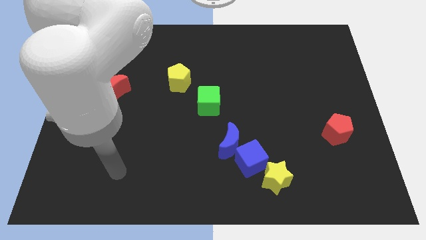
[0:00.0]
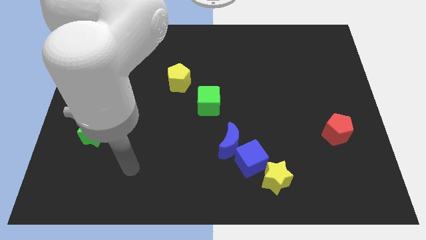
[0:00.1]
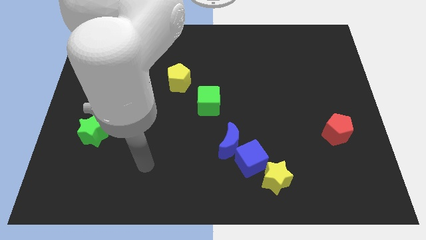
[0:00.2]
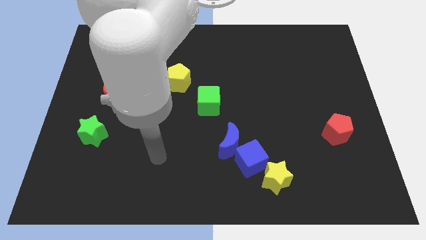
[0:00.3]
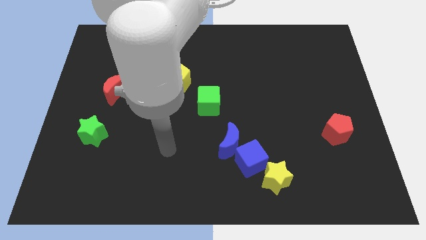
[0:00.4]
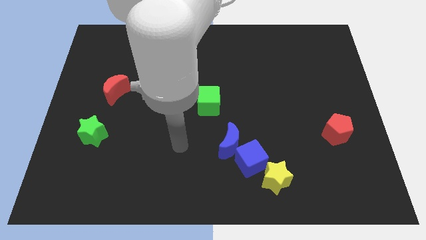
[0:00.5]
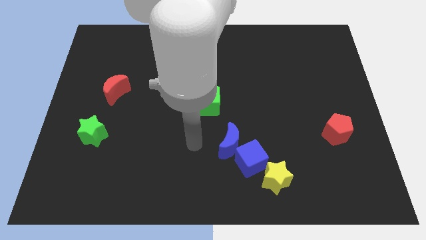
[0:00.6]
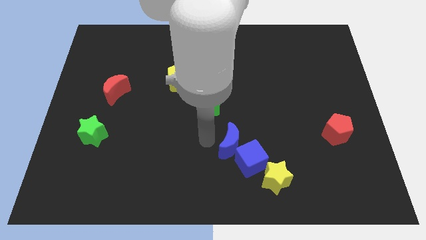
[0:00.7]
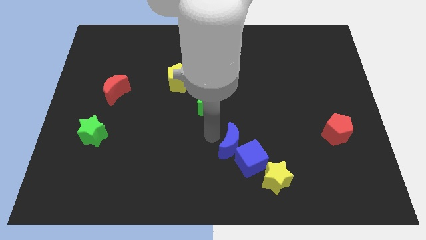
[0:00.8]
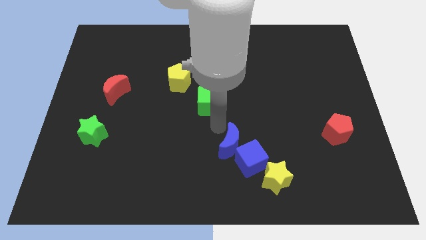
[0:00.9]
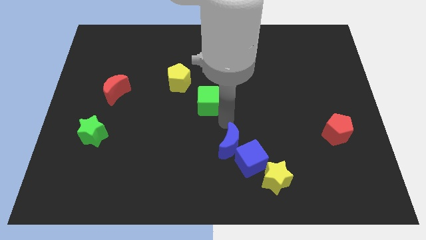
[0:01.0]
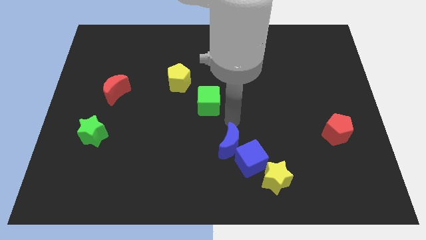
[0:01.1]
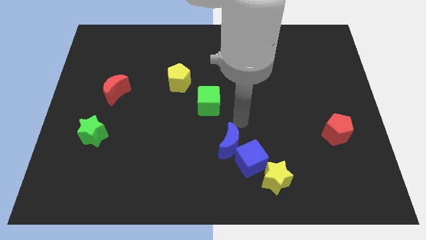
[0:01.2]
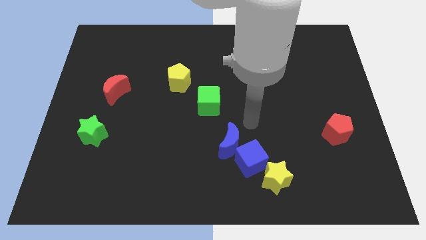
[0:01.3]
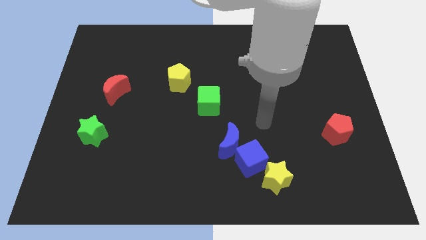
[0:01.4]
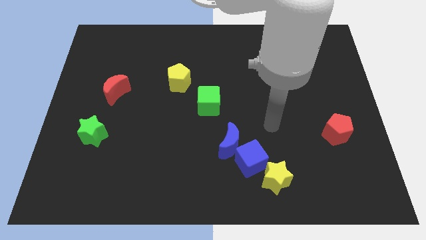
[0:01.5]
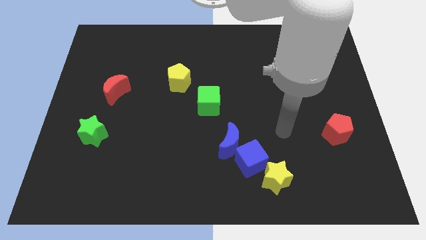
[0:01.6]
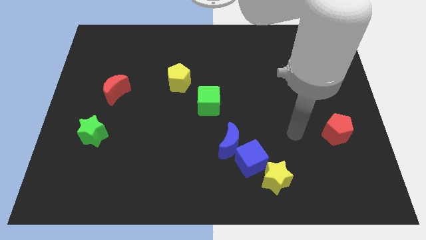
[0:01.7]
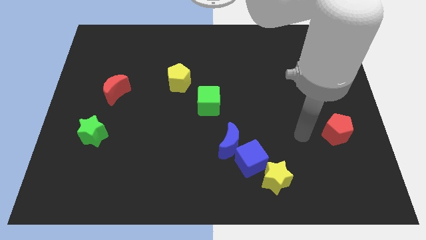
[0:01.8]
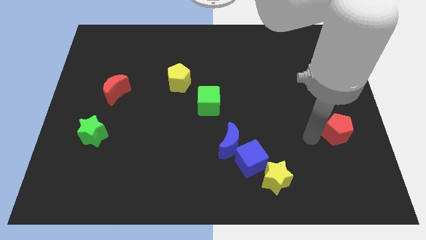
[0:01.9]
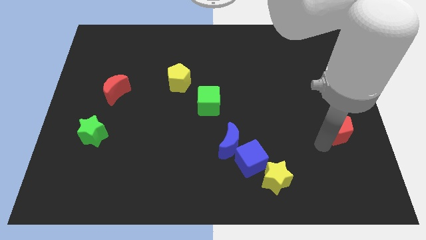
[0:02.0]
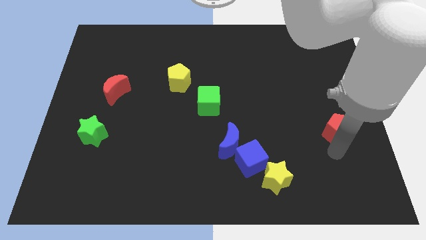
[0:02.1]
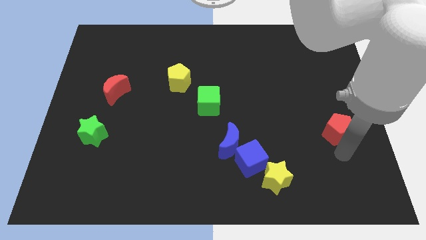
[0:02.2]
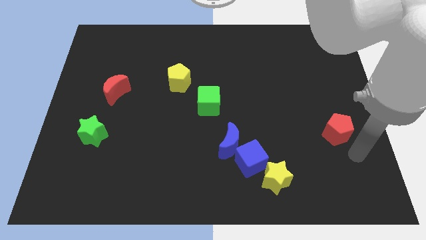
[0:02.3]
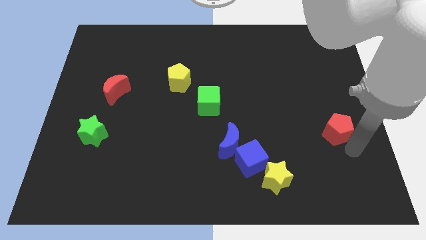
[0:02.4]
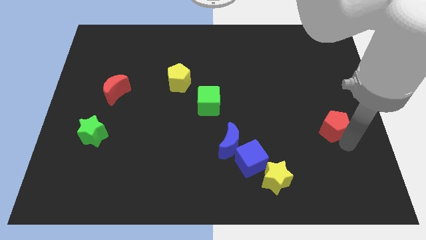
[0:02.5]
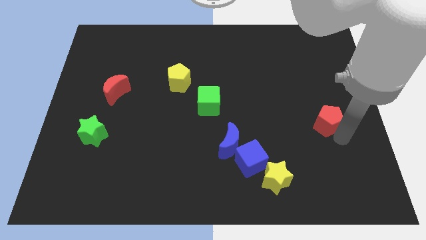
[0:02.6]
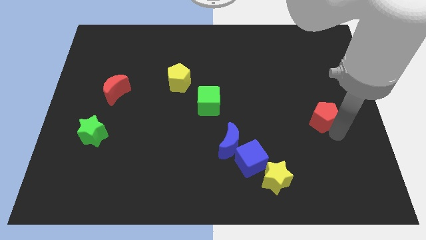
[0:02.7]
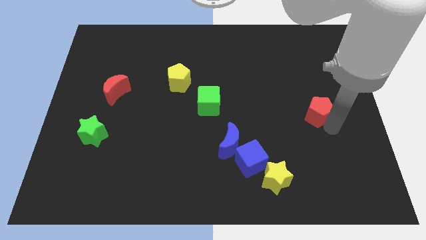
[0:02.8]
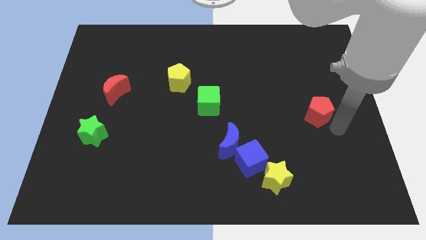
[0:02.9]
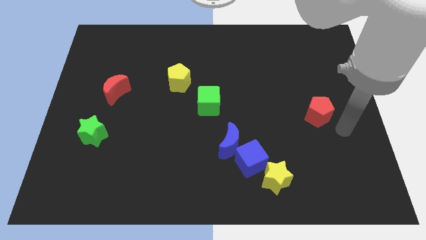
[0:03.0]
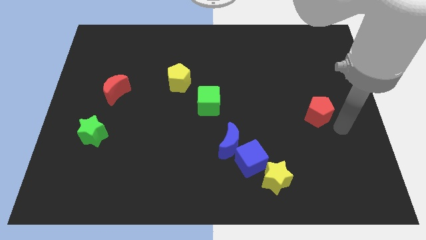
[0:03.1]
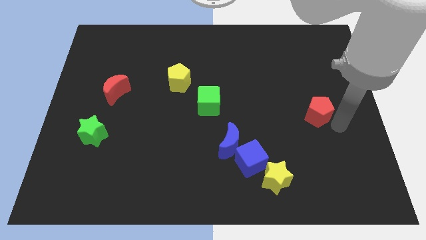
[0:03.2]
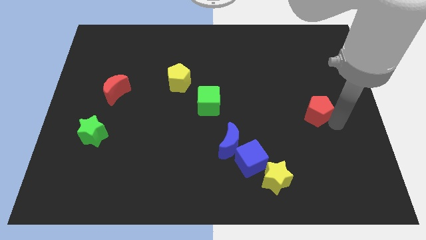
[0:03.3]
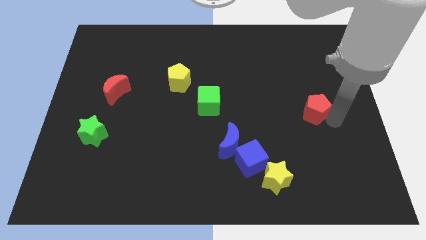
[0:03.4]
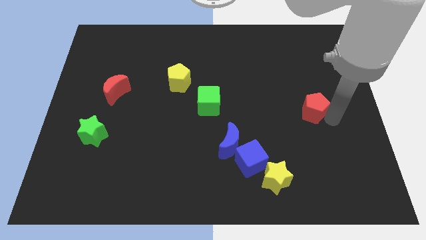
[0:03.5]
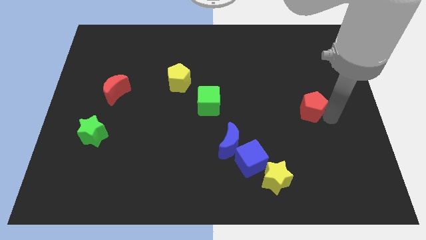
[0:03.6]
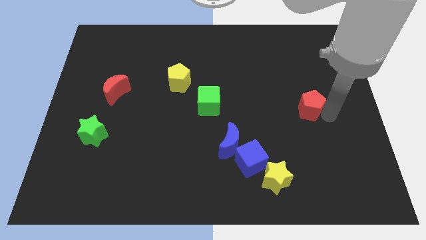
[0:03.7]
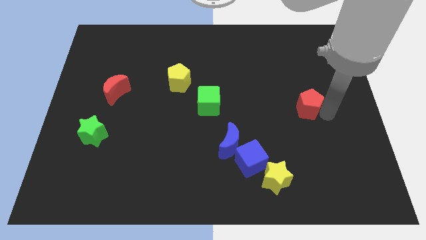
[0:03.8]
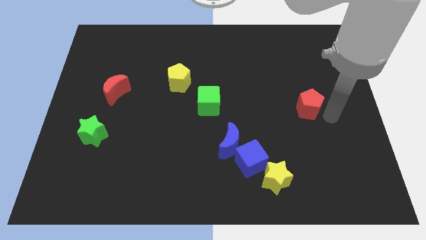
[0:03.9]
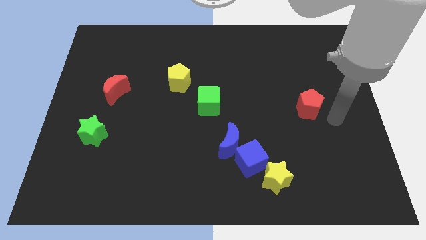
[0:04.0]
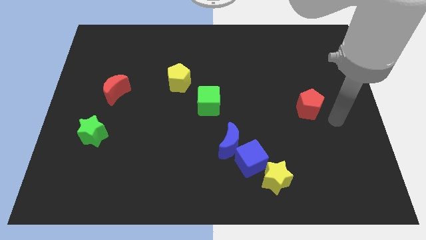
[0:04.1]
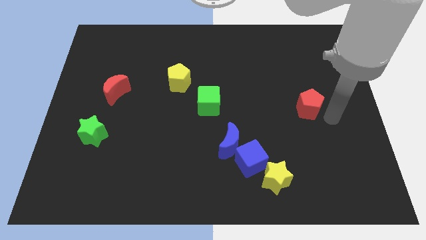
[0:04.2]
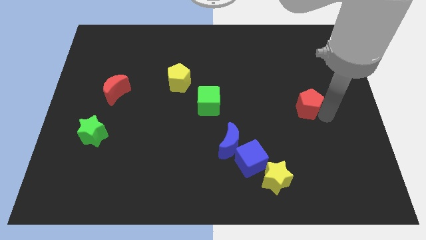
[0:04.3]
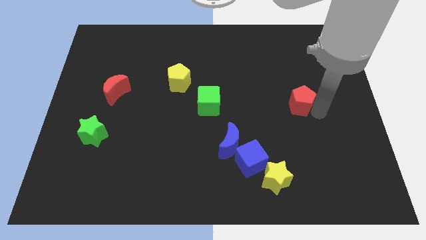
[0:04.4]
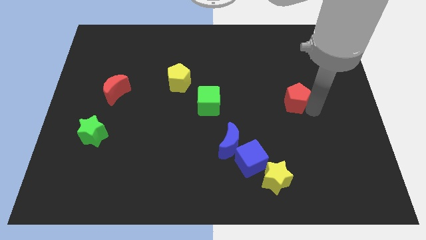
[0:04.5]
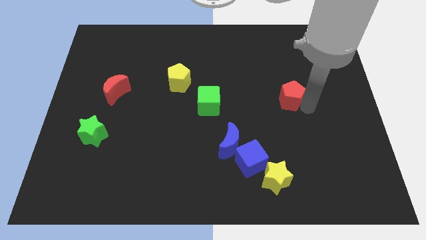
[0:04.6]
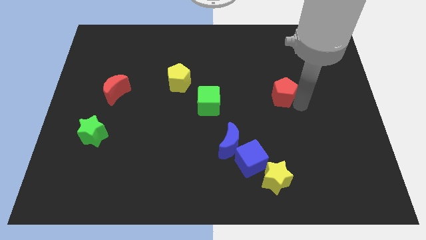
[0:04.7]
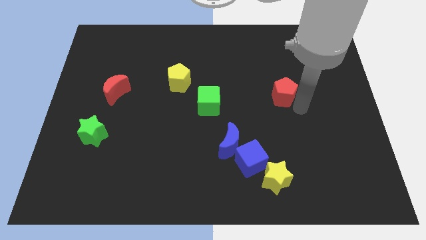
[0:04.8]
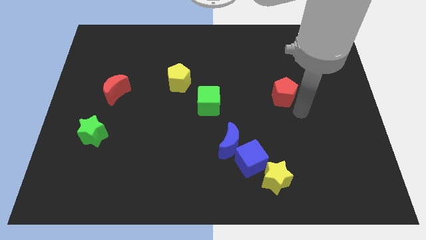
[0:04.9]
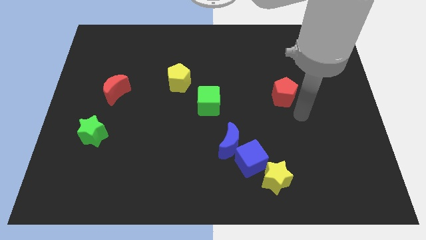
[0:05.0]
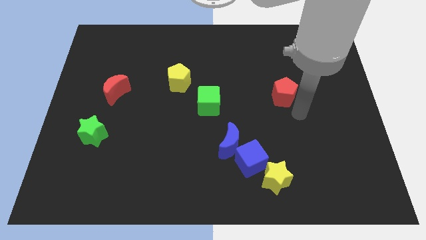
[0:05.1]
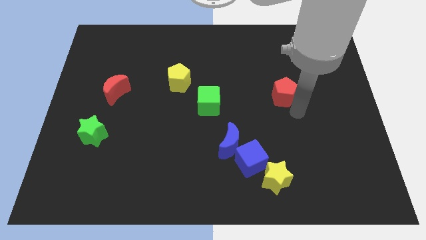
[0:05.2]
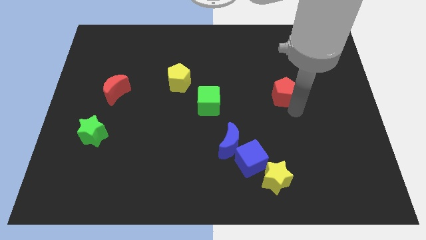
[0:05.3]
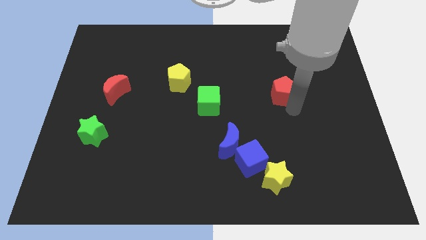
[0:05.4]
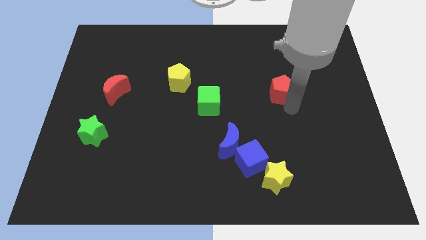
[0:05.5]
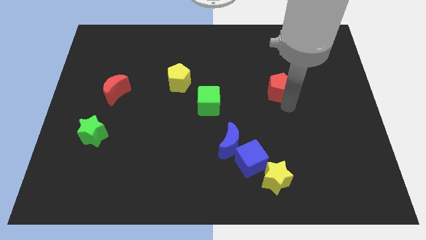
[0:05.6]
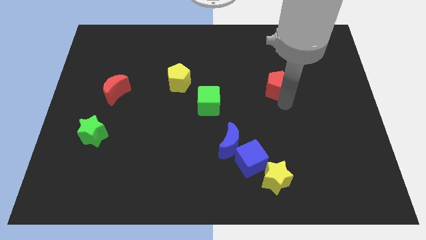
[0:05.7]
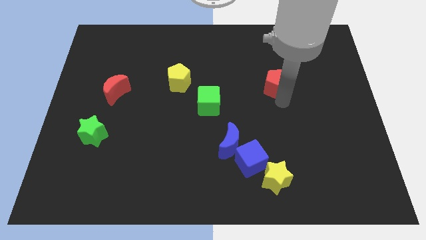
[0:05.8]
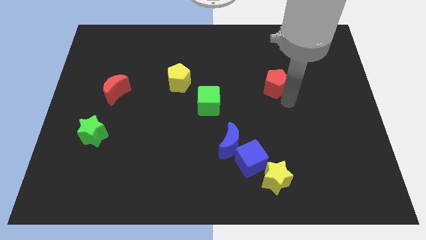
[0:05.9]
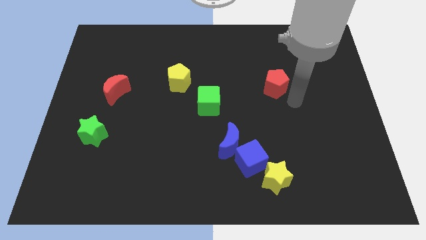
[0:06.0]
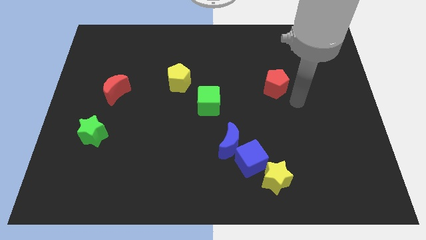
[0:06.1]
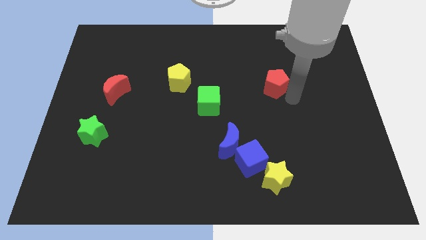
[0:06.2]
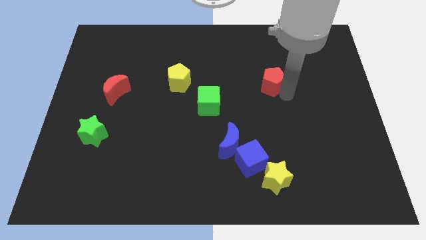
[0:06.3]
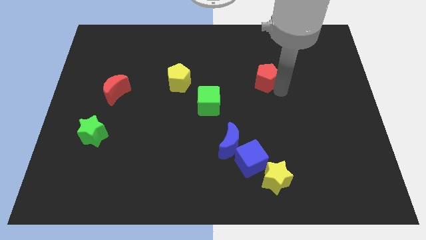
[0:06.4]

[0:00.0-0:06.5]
slide the red pentagon diagonally up and to the left

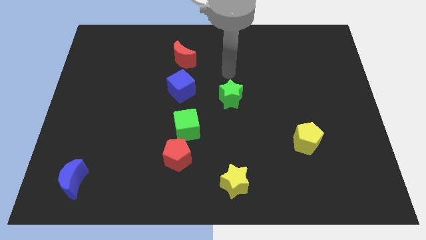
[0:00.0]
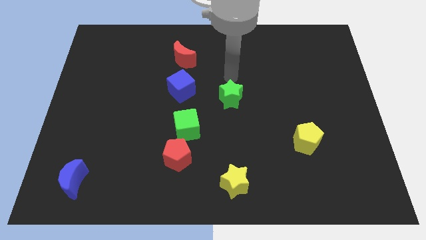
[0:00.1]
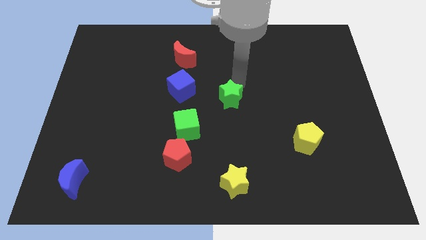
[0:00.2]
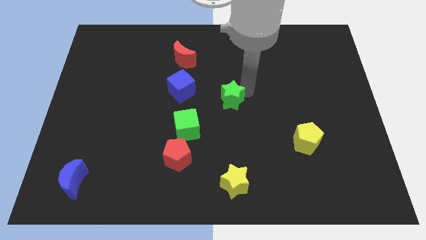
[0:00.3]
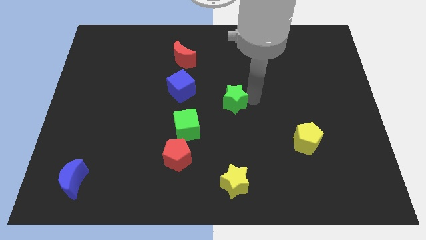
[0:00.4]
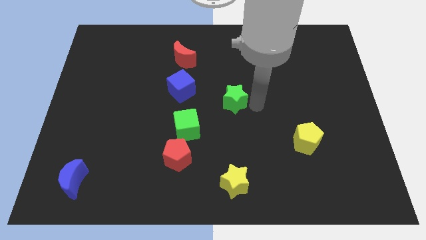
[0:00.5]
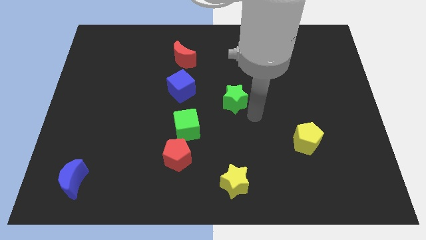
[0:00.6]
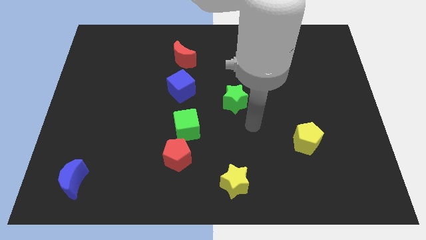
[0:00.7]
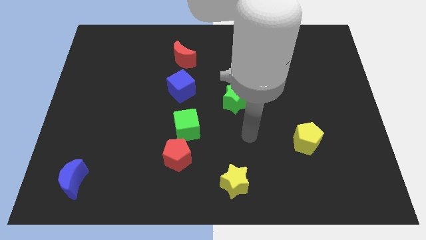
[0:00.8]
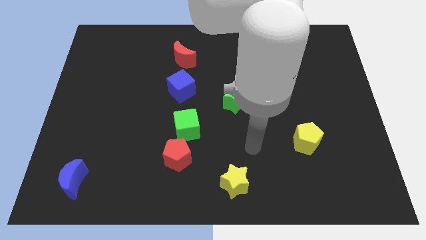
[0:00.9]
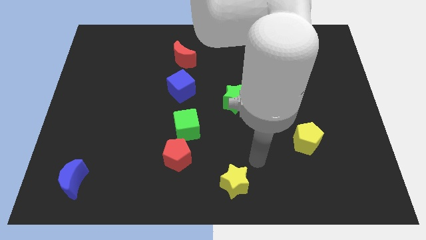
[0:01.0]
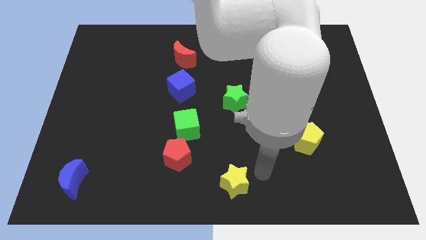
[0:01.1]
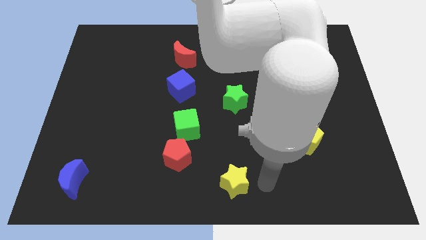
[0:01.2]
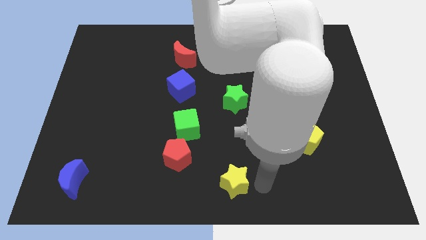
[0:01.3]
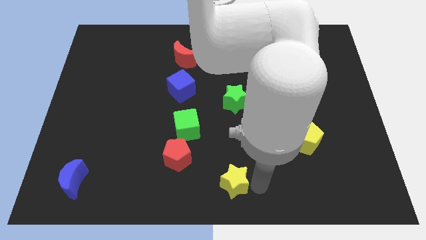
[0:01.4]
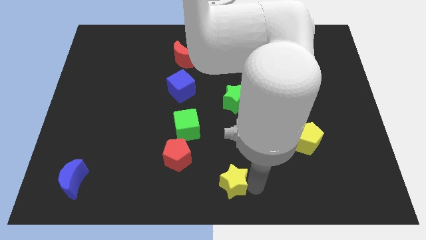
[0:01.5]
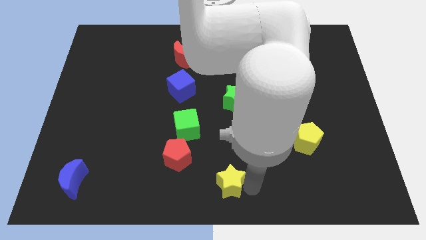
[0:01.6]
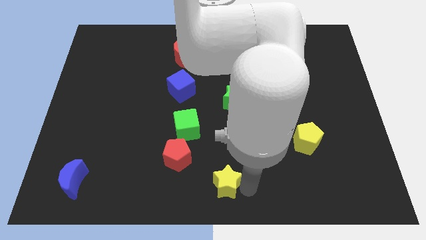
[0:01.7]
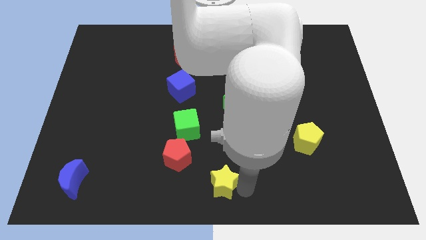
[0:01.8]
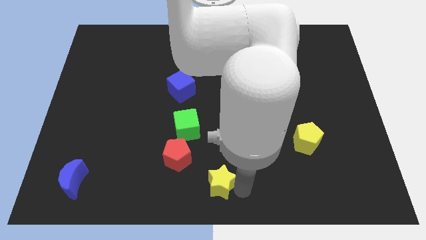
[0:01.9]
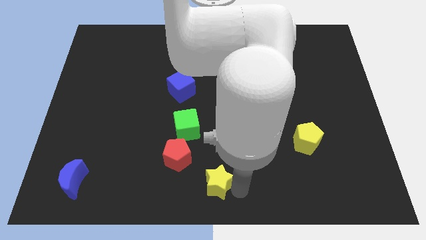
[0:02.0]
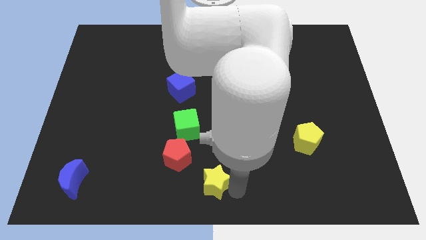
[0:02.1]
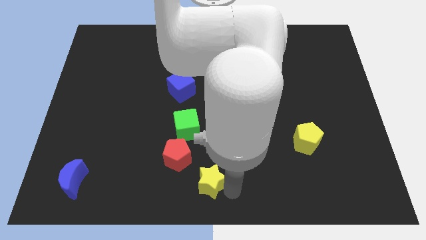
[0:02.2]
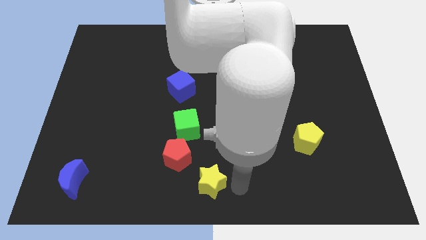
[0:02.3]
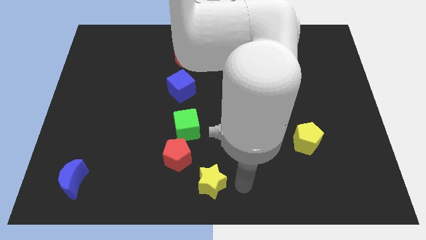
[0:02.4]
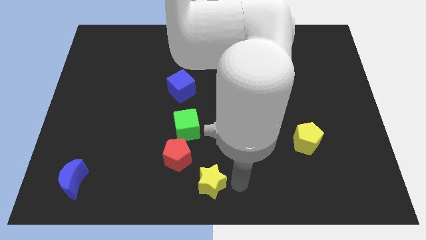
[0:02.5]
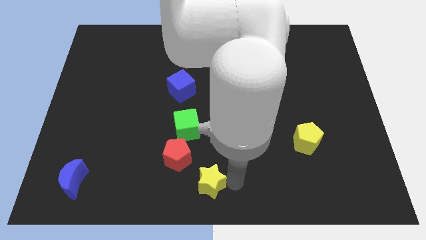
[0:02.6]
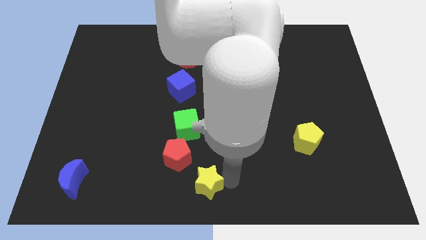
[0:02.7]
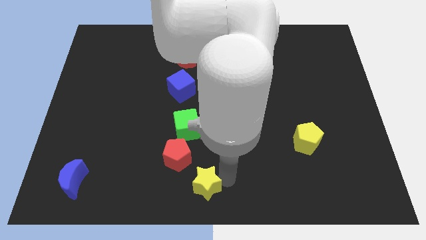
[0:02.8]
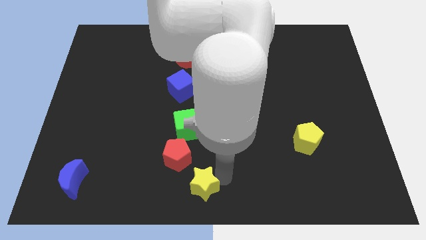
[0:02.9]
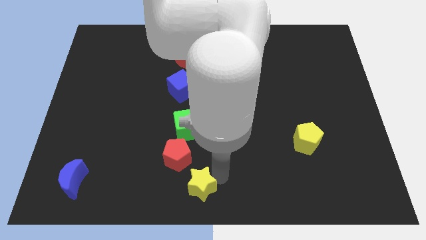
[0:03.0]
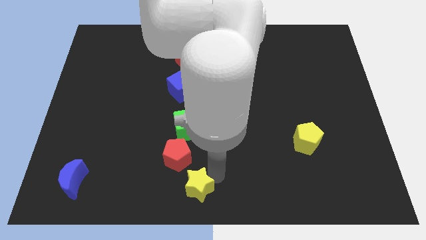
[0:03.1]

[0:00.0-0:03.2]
move the yellow star to the left slightly
